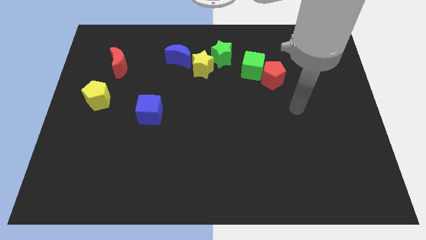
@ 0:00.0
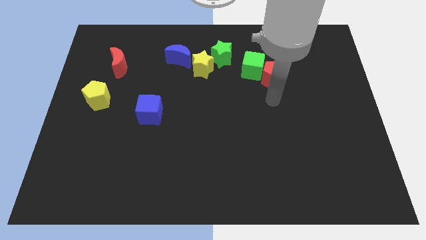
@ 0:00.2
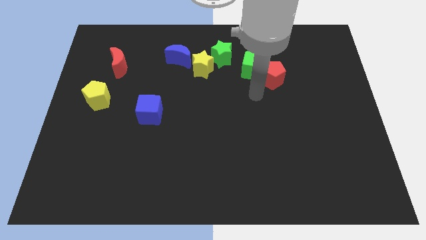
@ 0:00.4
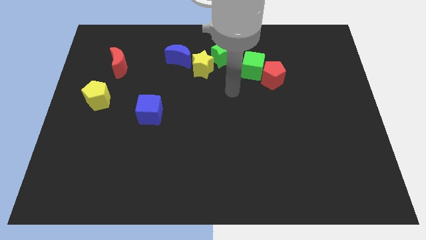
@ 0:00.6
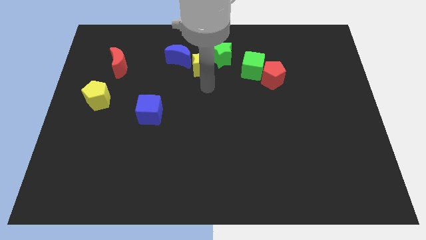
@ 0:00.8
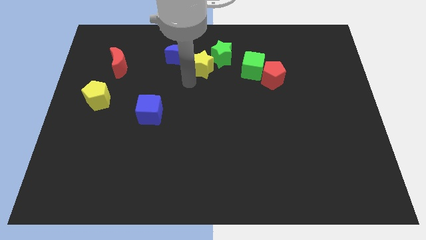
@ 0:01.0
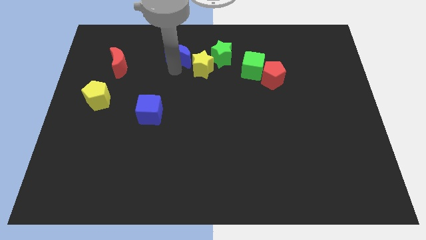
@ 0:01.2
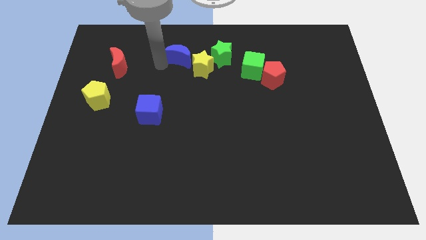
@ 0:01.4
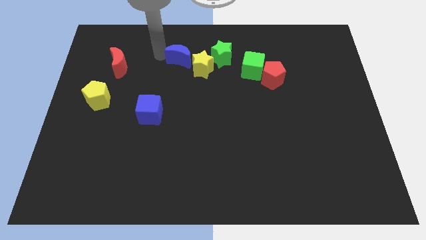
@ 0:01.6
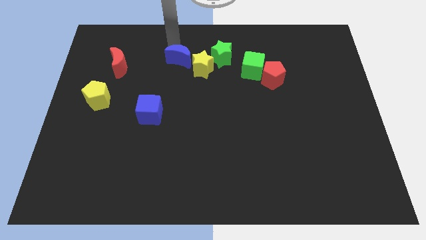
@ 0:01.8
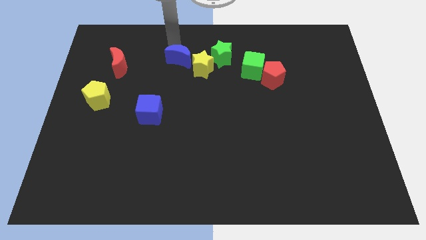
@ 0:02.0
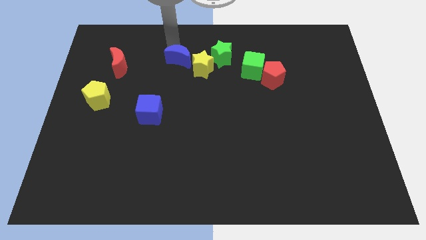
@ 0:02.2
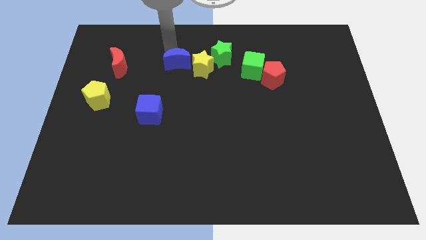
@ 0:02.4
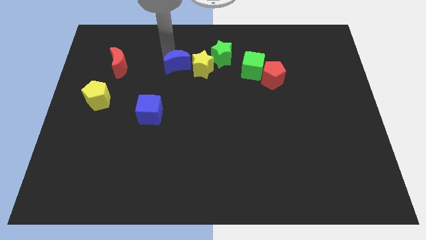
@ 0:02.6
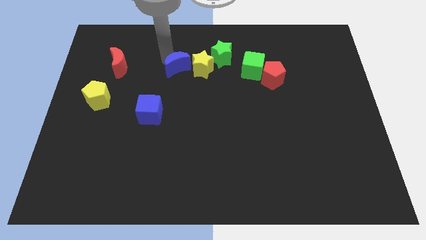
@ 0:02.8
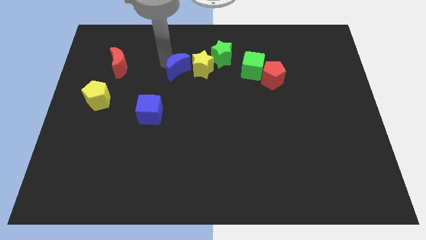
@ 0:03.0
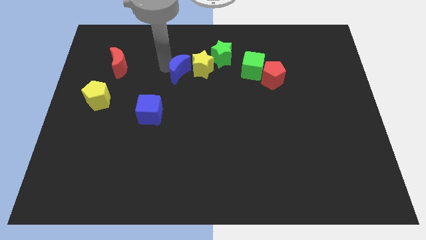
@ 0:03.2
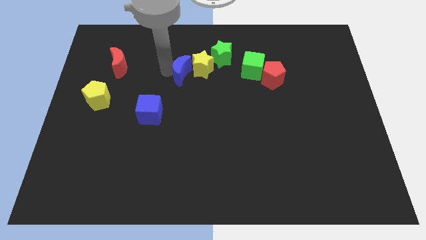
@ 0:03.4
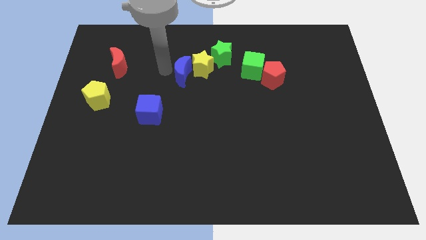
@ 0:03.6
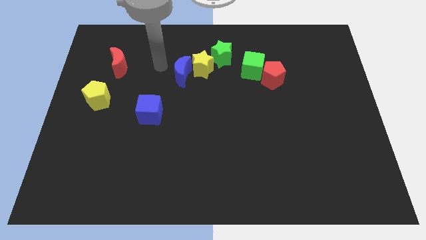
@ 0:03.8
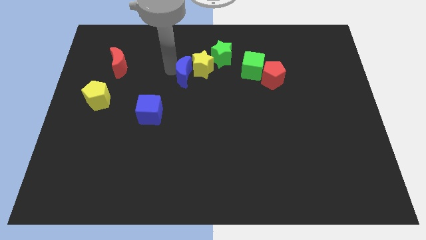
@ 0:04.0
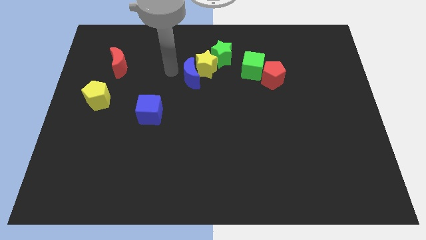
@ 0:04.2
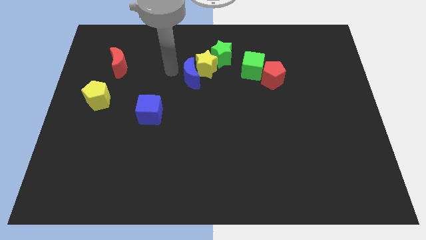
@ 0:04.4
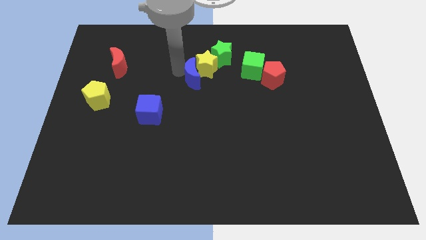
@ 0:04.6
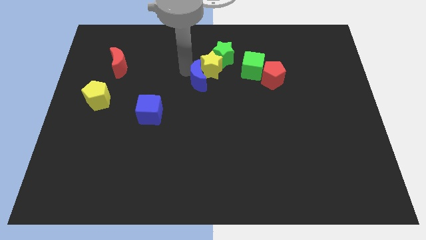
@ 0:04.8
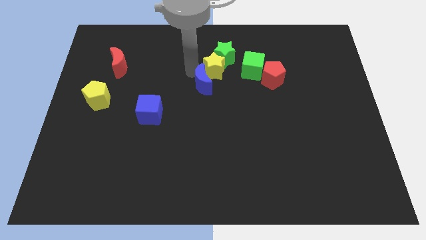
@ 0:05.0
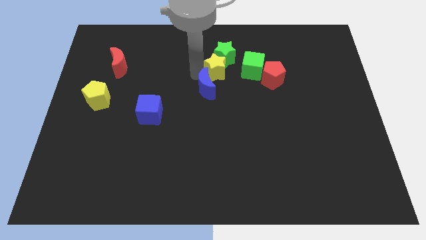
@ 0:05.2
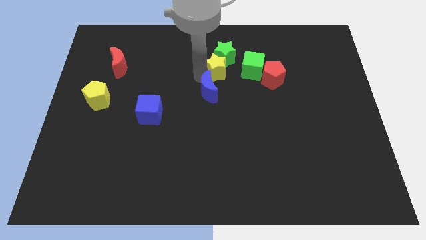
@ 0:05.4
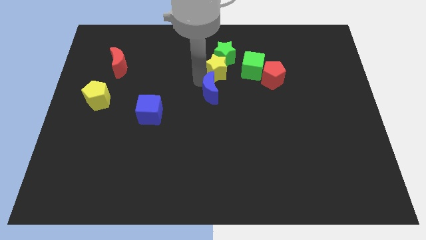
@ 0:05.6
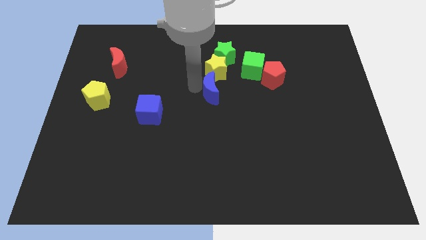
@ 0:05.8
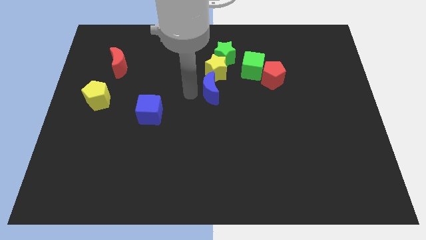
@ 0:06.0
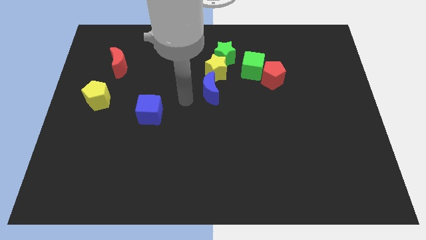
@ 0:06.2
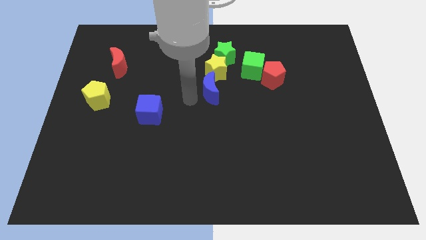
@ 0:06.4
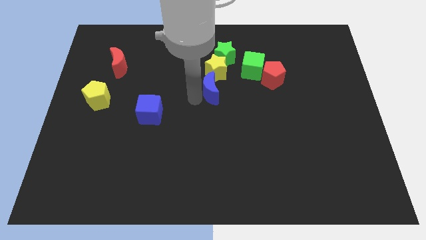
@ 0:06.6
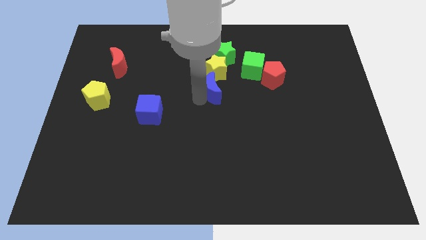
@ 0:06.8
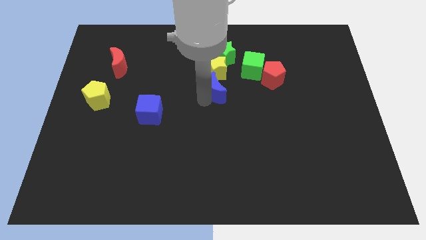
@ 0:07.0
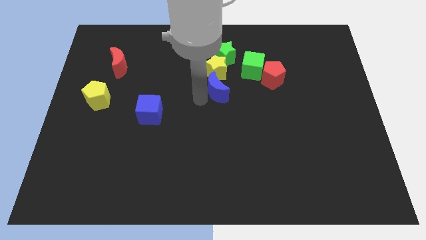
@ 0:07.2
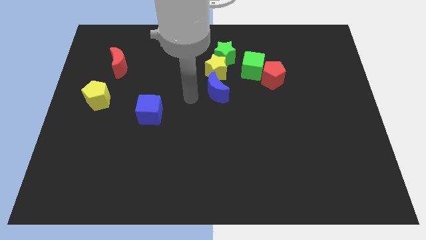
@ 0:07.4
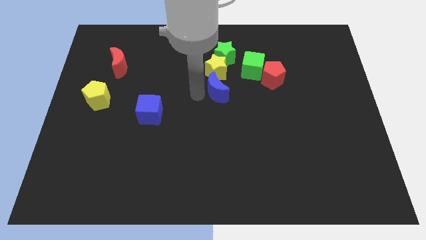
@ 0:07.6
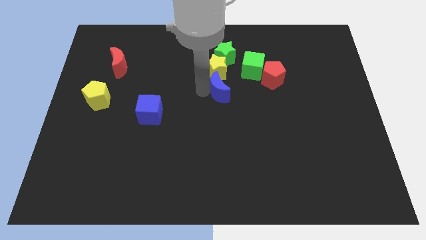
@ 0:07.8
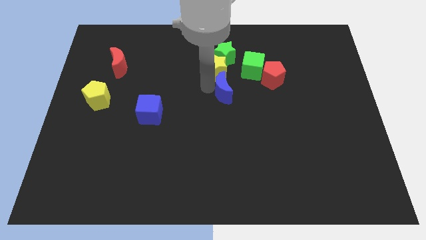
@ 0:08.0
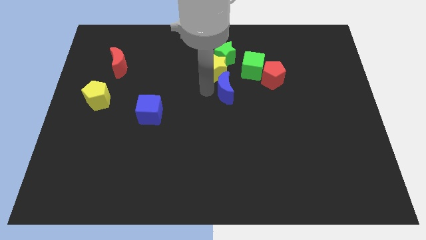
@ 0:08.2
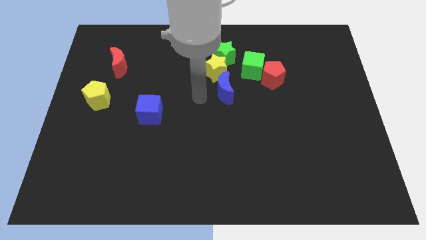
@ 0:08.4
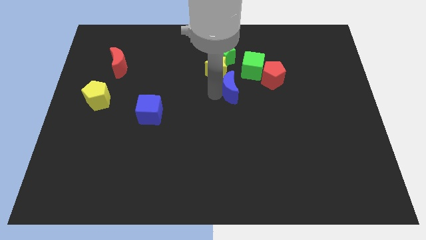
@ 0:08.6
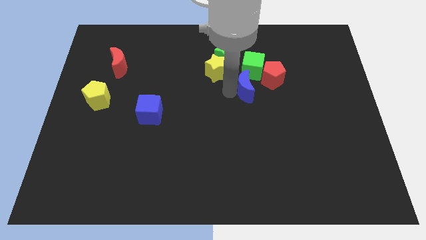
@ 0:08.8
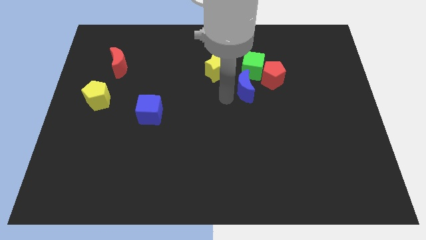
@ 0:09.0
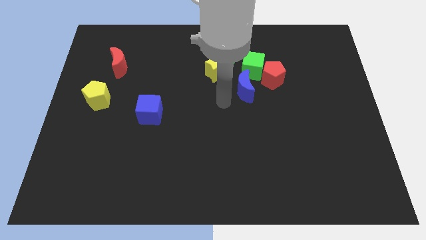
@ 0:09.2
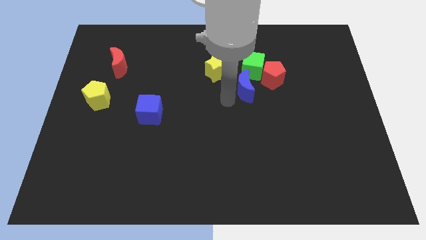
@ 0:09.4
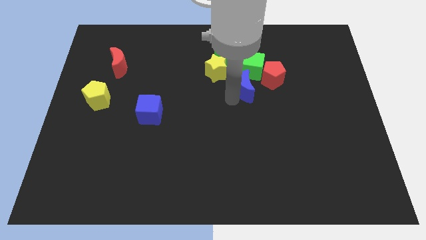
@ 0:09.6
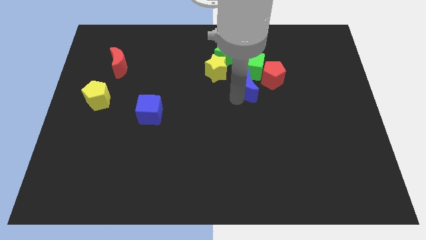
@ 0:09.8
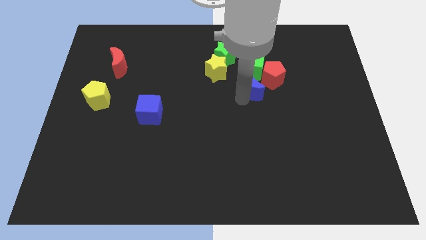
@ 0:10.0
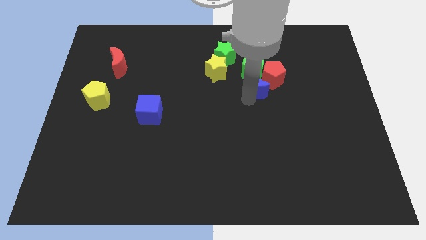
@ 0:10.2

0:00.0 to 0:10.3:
put the blue moon towards the red pentagon

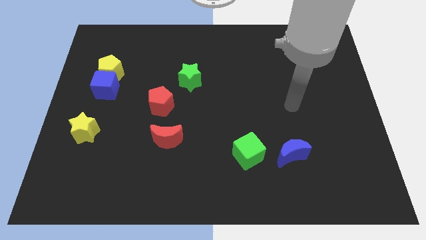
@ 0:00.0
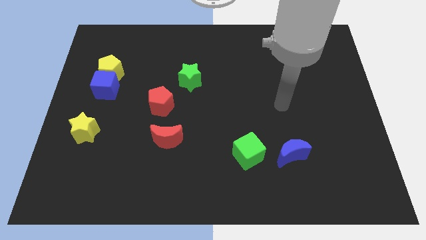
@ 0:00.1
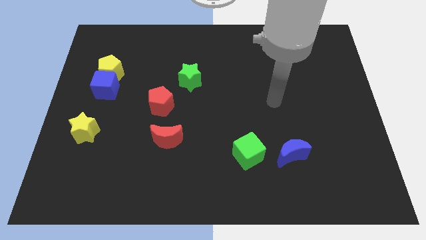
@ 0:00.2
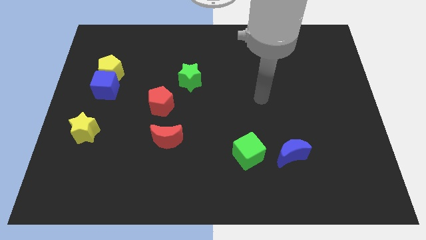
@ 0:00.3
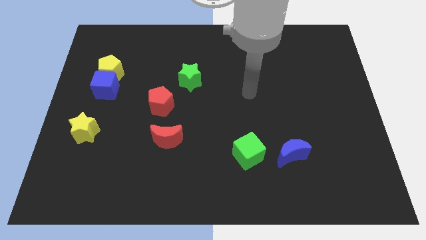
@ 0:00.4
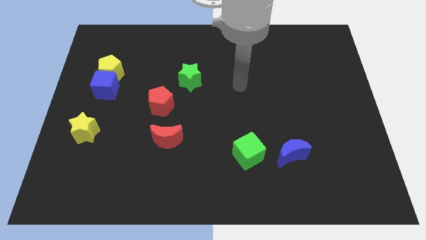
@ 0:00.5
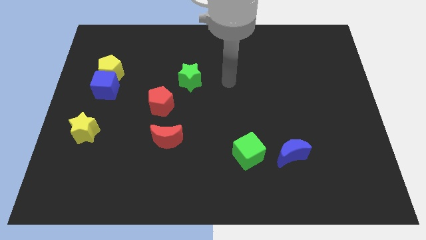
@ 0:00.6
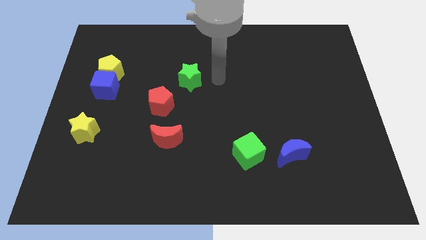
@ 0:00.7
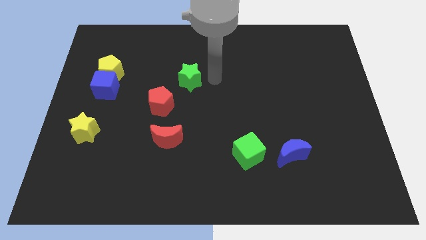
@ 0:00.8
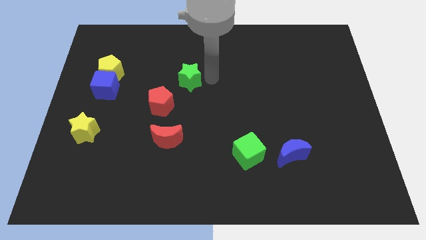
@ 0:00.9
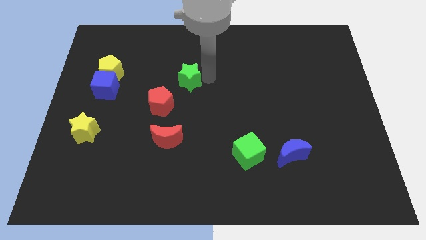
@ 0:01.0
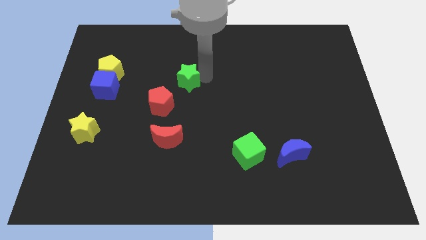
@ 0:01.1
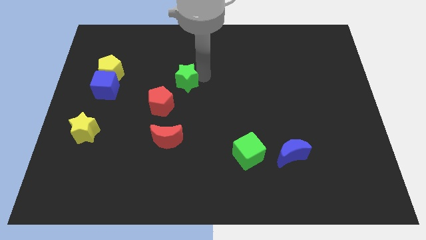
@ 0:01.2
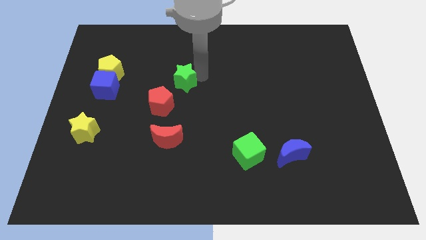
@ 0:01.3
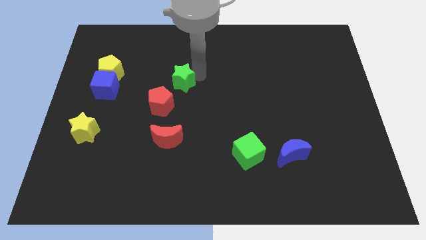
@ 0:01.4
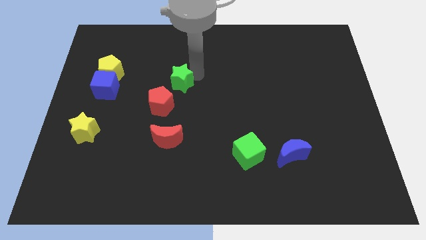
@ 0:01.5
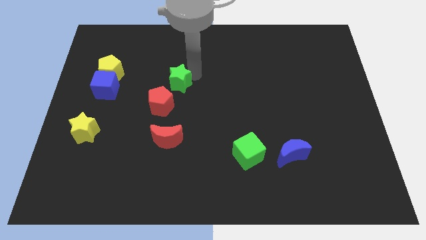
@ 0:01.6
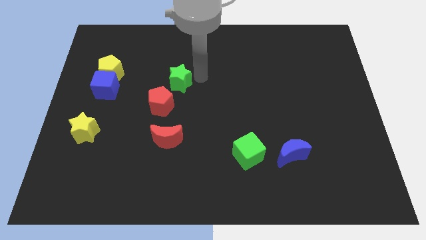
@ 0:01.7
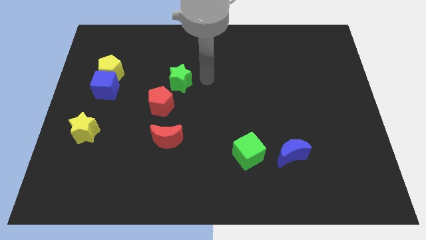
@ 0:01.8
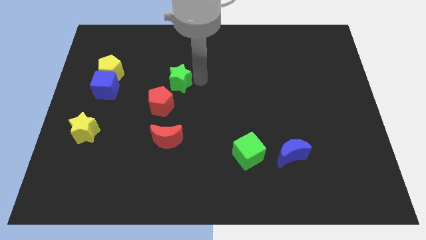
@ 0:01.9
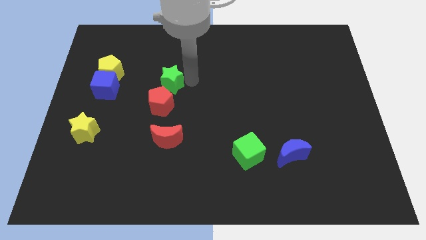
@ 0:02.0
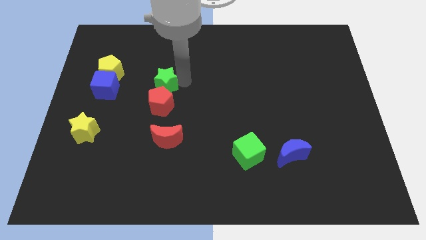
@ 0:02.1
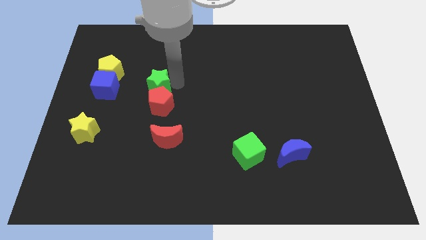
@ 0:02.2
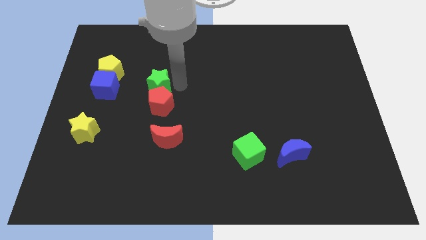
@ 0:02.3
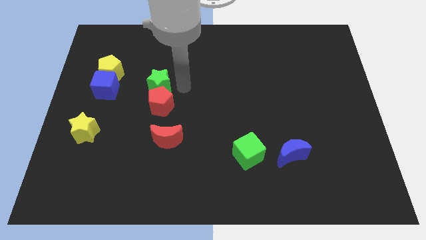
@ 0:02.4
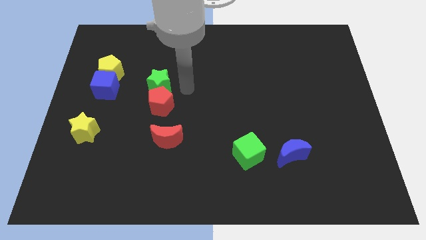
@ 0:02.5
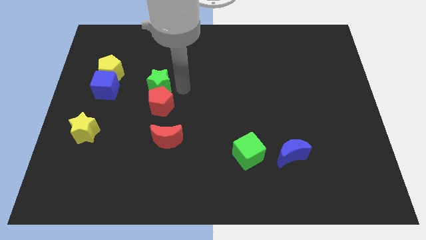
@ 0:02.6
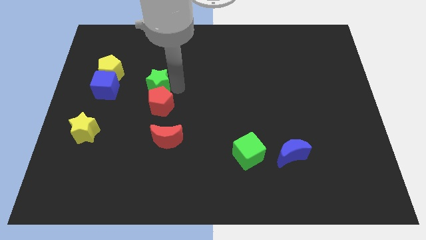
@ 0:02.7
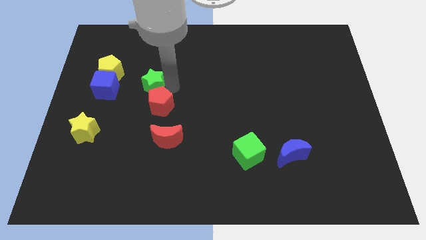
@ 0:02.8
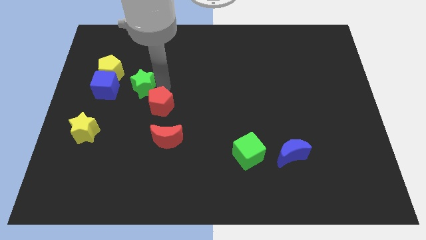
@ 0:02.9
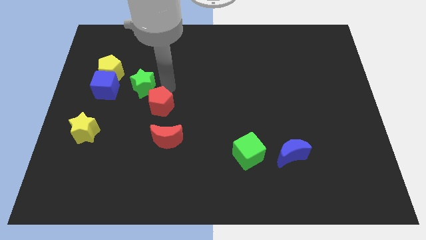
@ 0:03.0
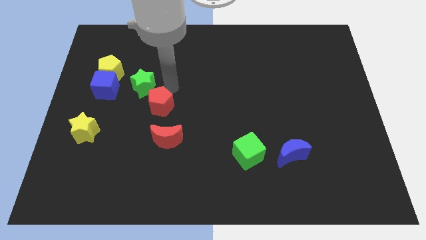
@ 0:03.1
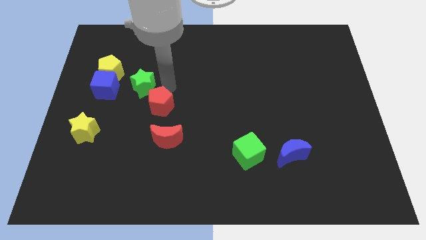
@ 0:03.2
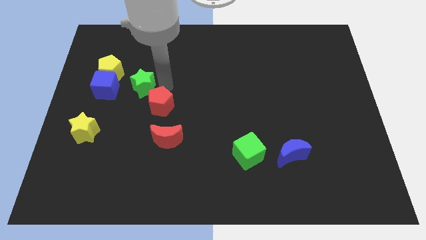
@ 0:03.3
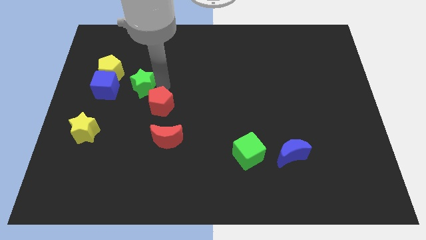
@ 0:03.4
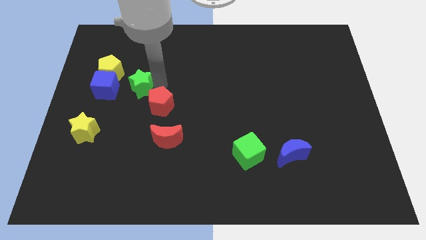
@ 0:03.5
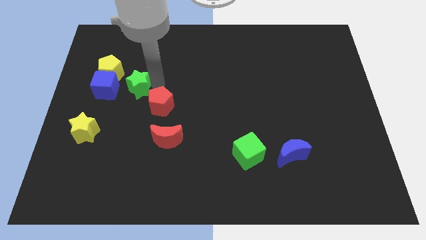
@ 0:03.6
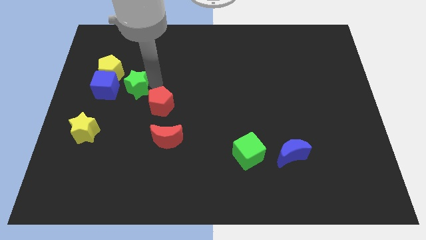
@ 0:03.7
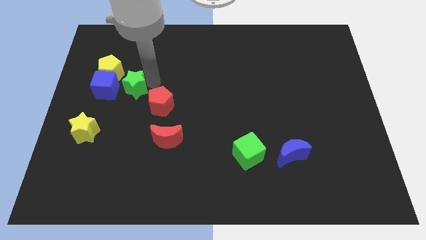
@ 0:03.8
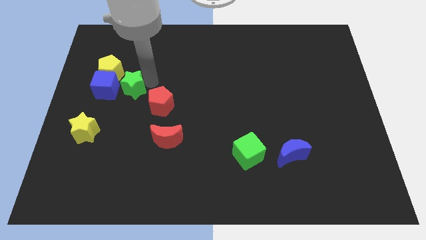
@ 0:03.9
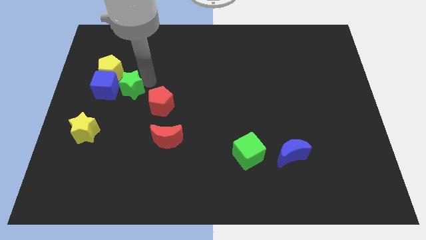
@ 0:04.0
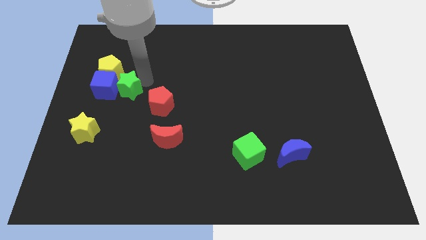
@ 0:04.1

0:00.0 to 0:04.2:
slide the green star close to the blue cube
